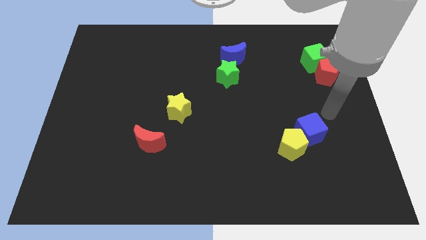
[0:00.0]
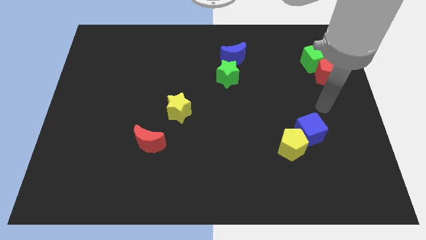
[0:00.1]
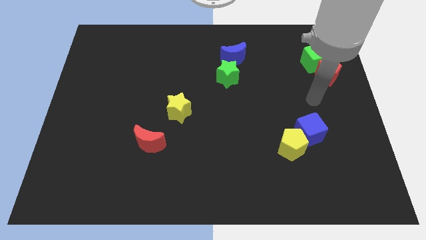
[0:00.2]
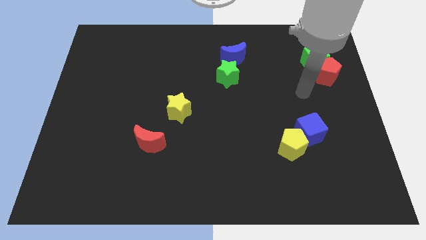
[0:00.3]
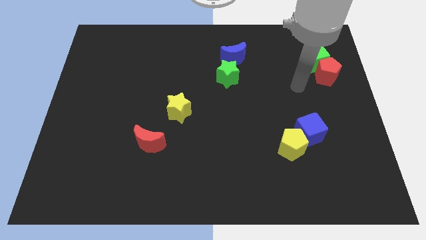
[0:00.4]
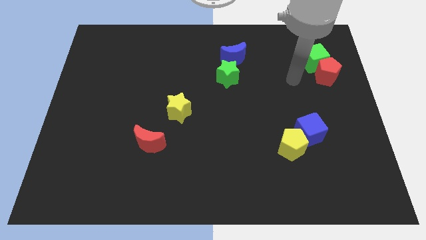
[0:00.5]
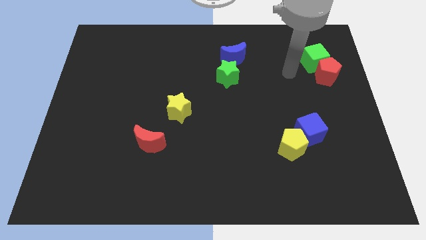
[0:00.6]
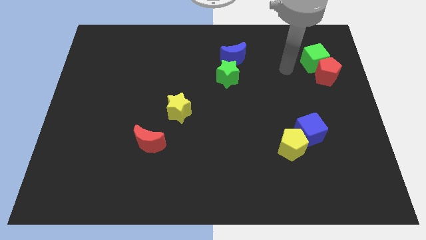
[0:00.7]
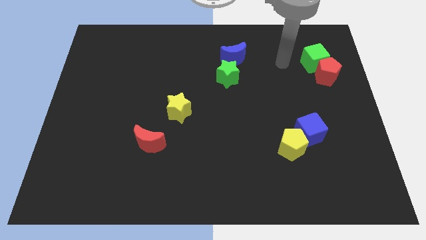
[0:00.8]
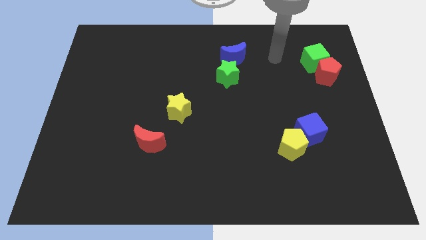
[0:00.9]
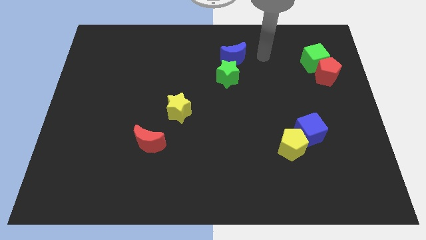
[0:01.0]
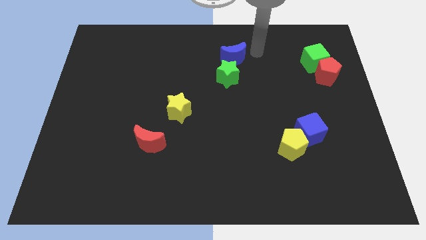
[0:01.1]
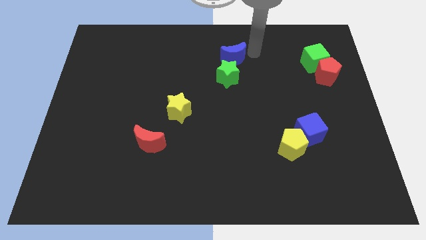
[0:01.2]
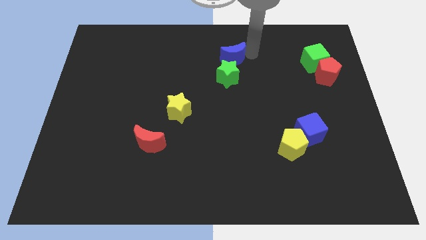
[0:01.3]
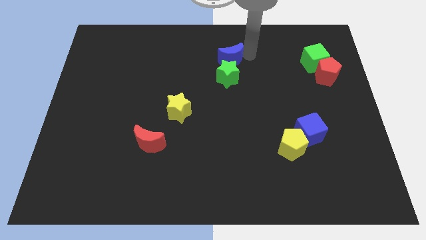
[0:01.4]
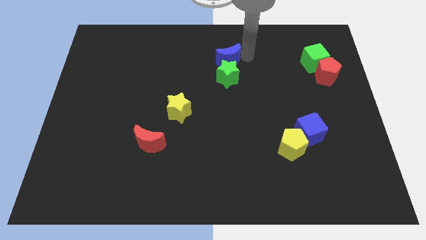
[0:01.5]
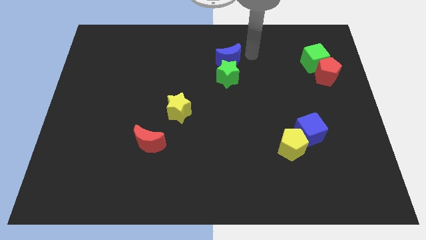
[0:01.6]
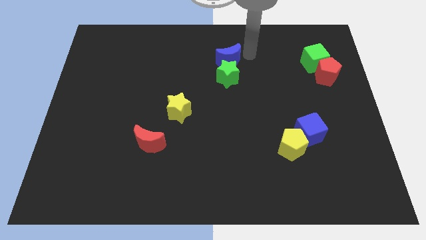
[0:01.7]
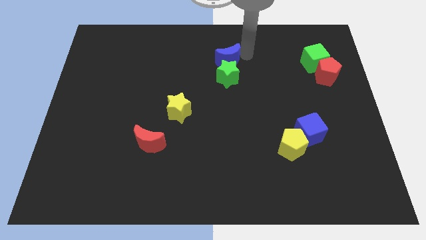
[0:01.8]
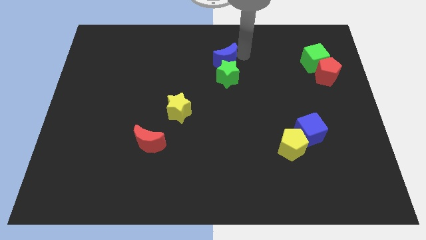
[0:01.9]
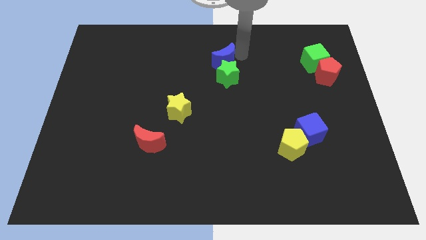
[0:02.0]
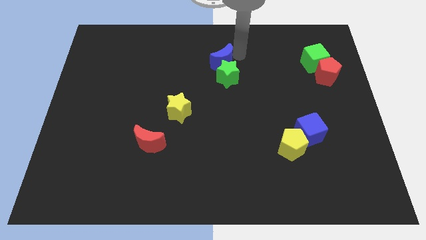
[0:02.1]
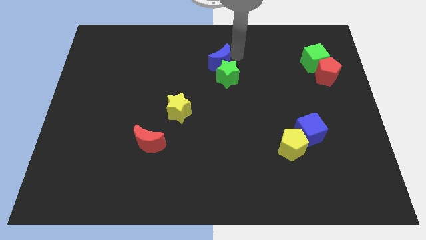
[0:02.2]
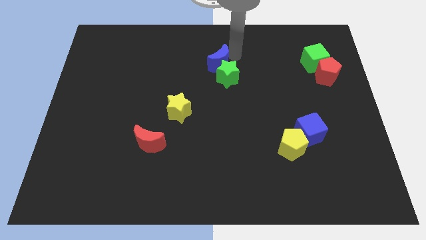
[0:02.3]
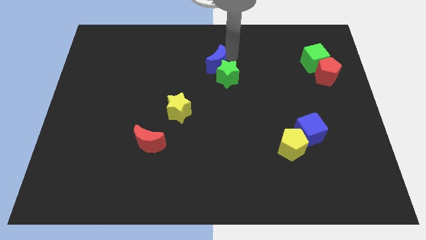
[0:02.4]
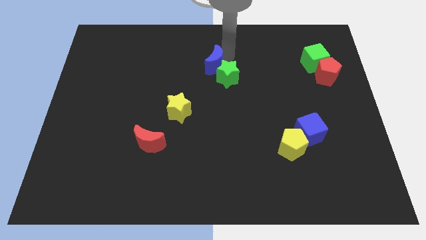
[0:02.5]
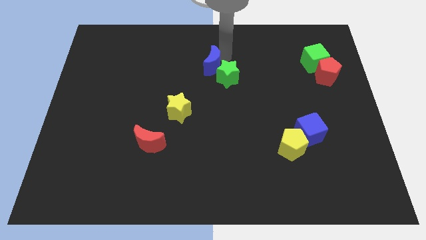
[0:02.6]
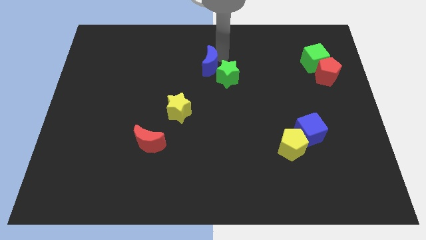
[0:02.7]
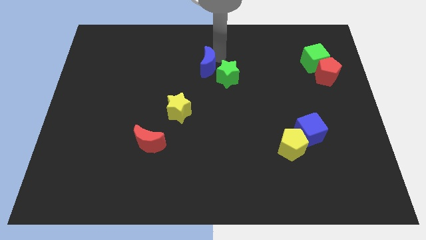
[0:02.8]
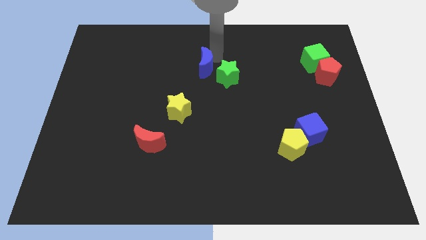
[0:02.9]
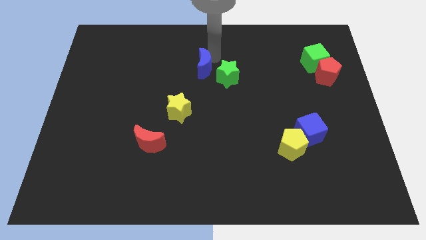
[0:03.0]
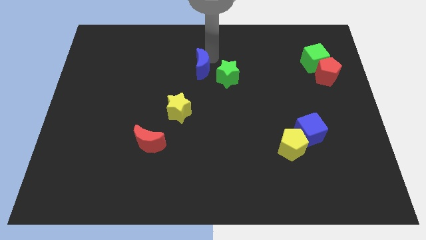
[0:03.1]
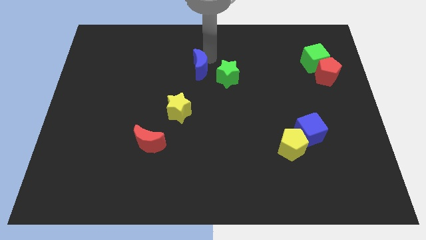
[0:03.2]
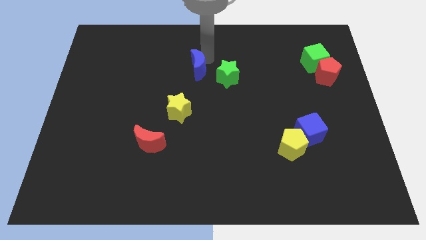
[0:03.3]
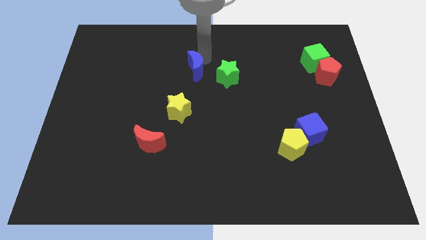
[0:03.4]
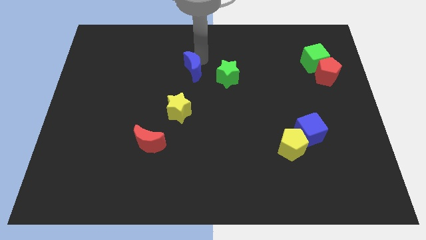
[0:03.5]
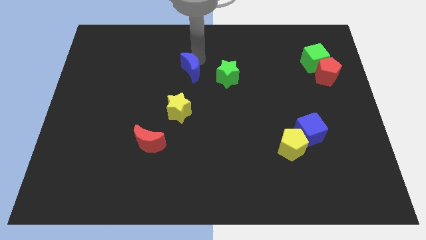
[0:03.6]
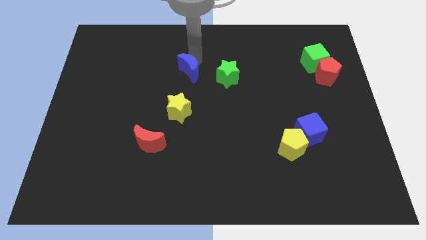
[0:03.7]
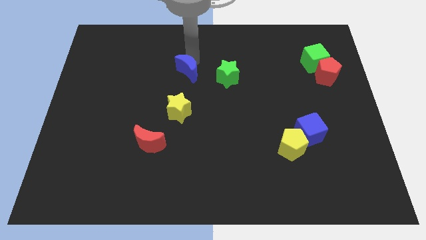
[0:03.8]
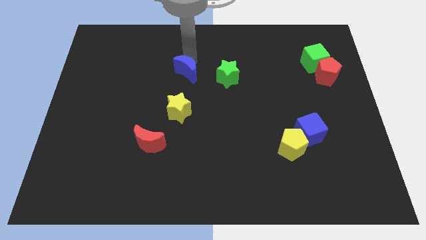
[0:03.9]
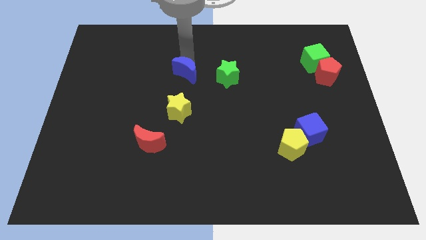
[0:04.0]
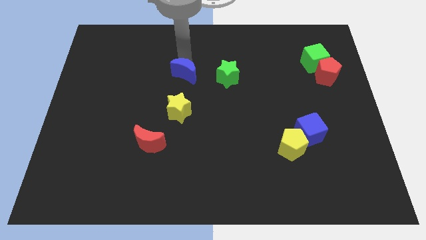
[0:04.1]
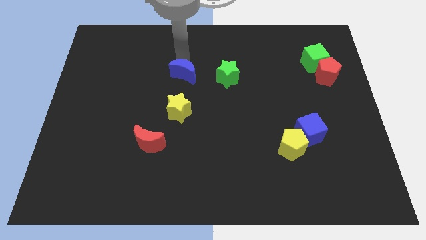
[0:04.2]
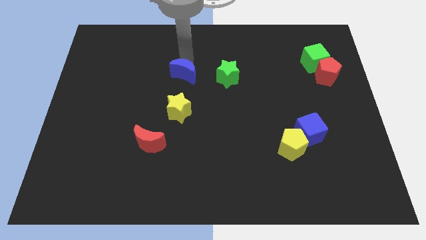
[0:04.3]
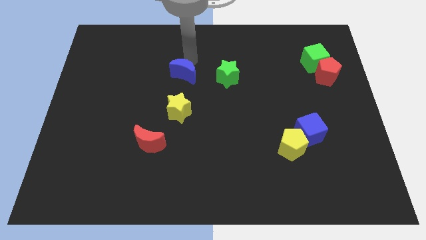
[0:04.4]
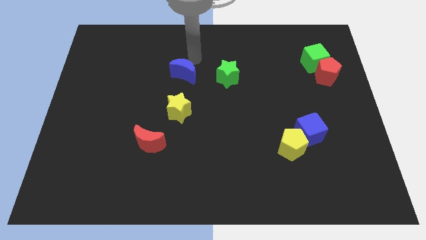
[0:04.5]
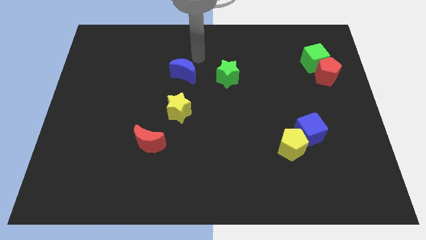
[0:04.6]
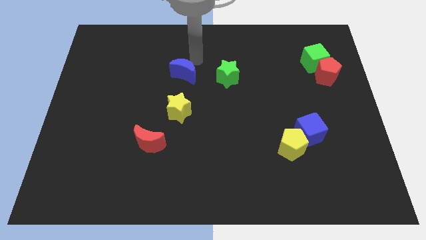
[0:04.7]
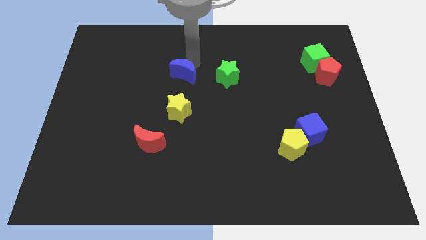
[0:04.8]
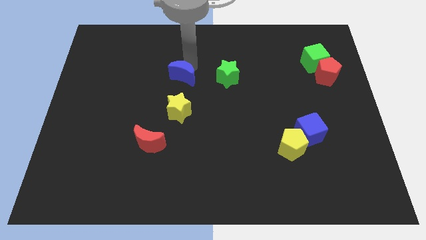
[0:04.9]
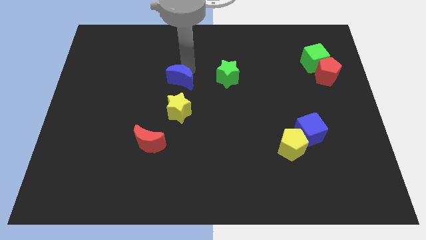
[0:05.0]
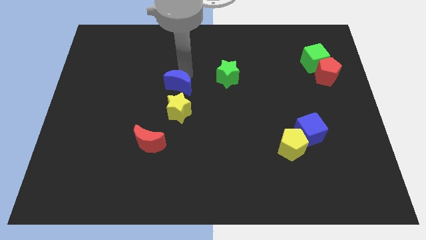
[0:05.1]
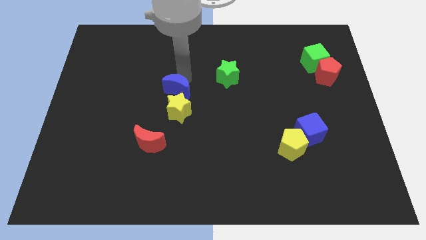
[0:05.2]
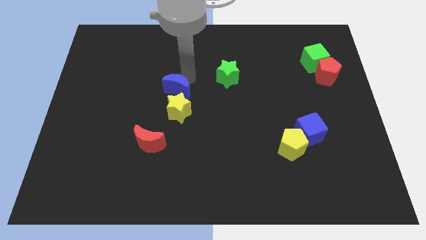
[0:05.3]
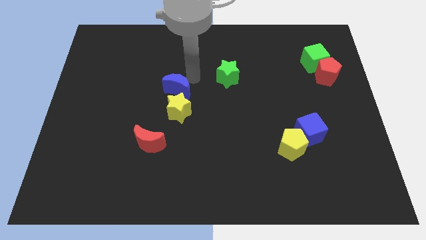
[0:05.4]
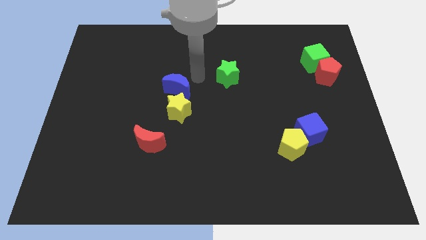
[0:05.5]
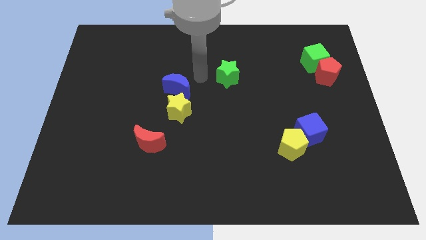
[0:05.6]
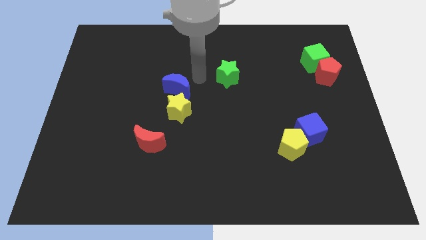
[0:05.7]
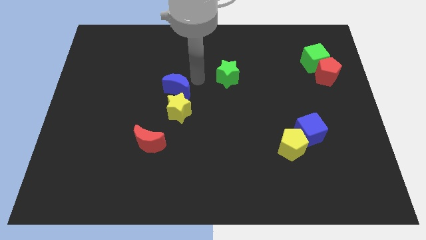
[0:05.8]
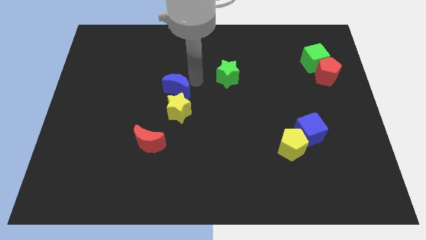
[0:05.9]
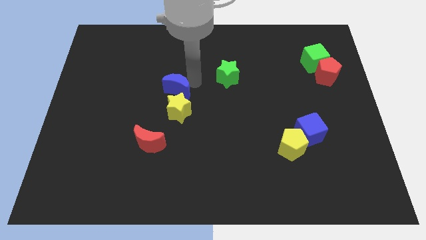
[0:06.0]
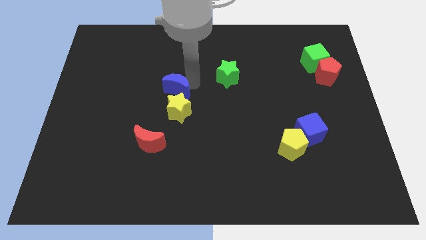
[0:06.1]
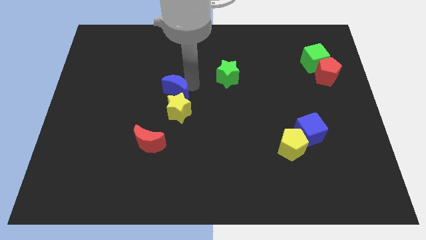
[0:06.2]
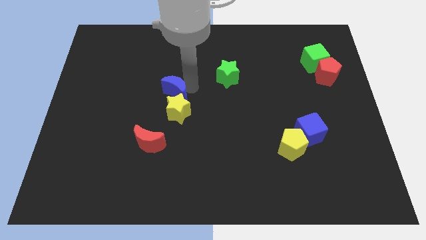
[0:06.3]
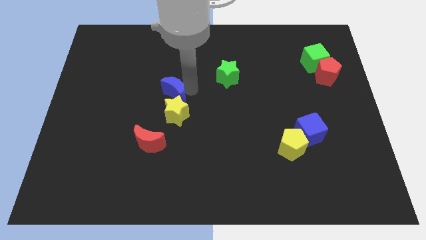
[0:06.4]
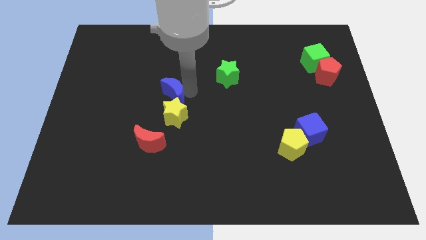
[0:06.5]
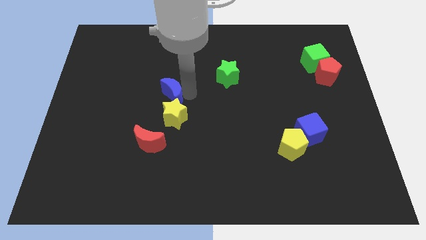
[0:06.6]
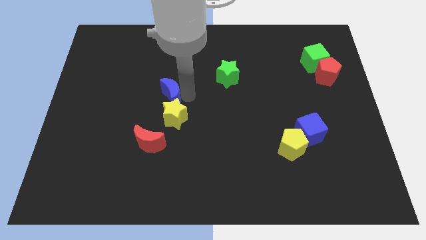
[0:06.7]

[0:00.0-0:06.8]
push the blue moon to the top side of the red moon

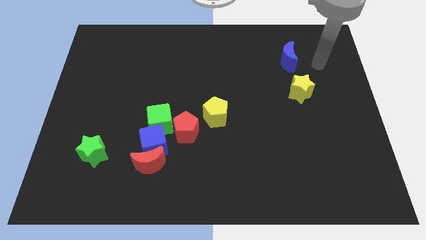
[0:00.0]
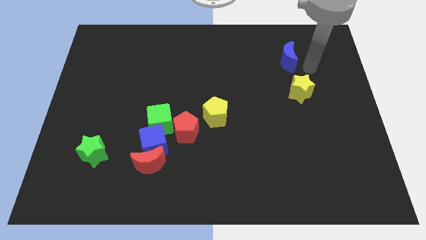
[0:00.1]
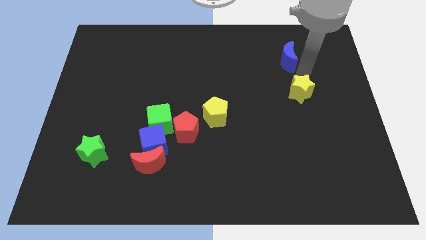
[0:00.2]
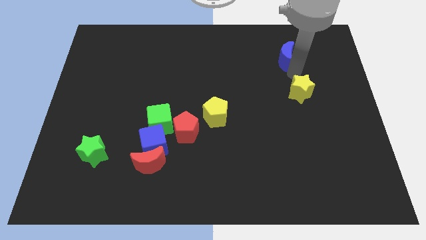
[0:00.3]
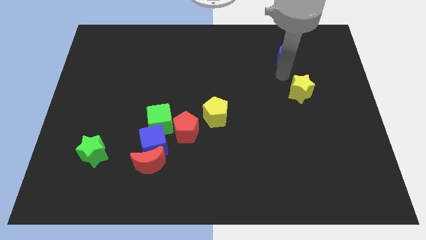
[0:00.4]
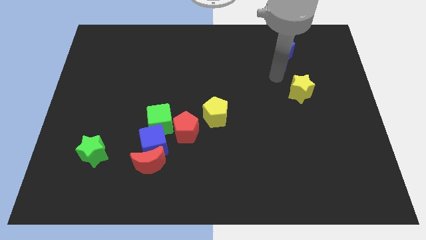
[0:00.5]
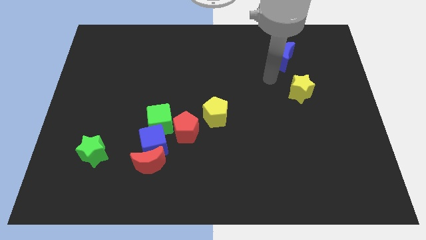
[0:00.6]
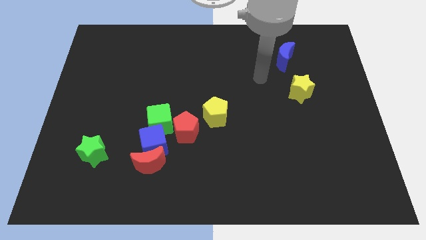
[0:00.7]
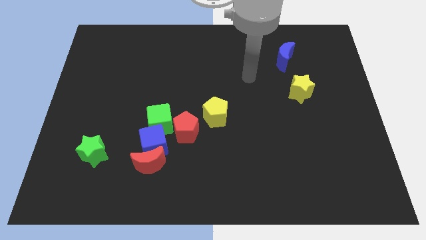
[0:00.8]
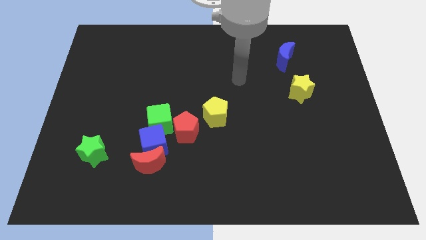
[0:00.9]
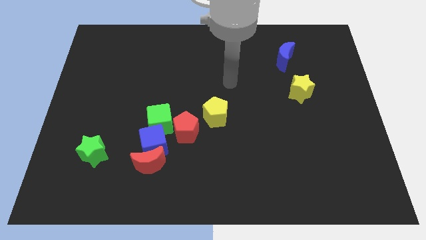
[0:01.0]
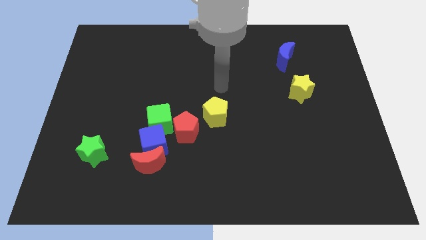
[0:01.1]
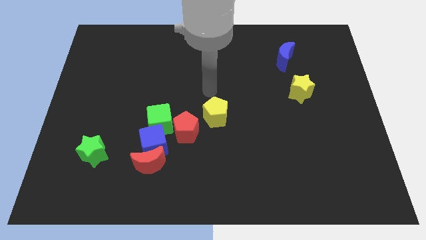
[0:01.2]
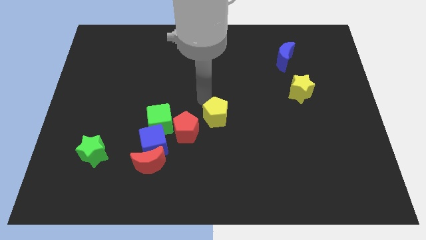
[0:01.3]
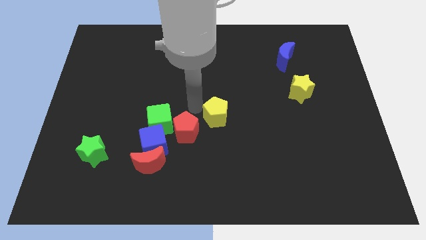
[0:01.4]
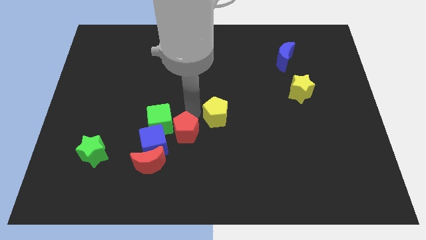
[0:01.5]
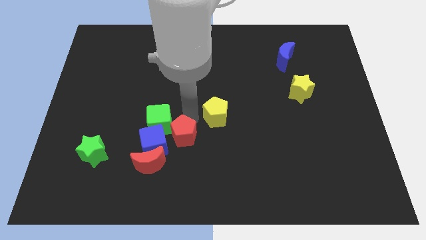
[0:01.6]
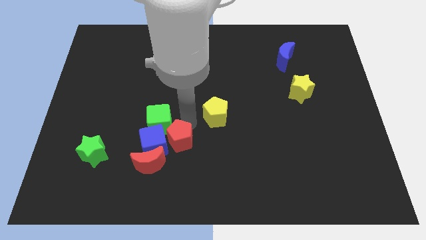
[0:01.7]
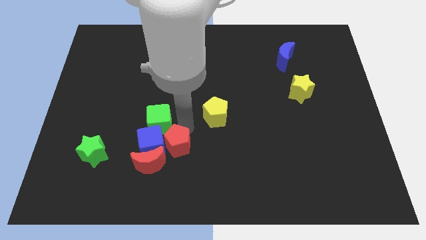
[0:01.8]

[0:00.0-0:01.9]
push the red pentagon to the bottom of the green cube
